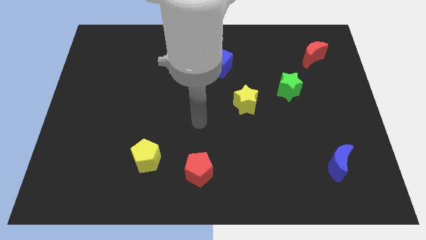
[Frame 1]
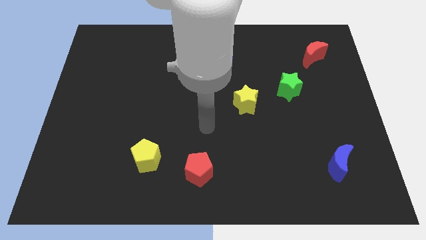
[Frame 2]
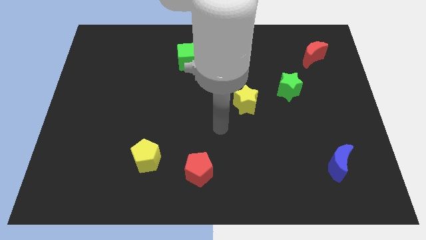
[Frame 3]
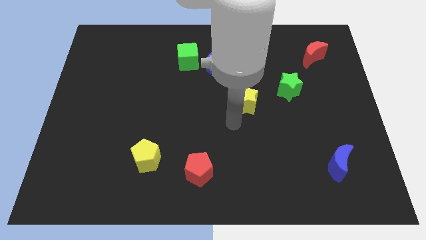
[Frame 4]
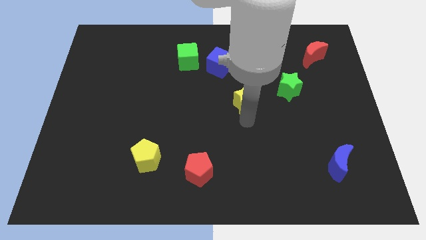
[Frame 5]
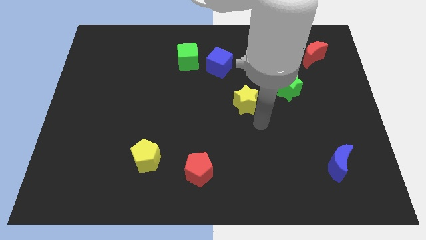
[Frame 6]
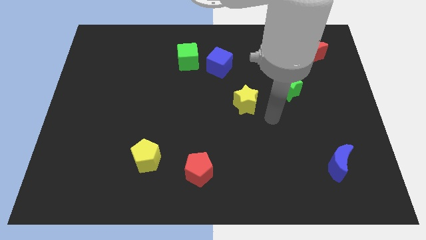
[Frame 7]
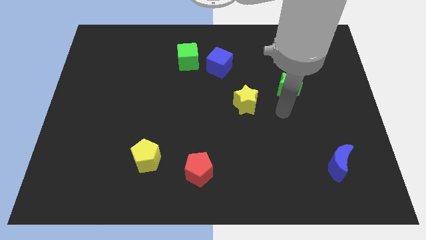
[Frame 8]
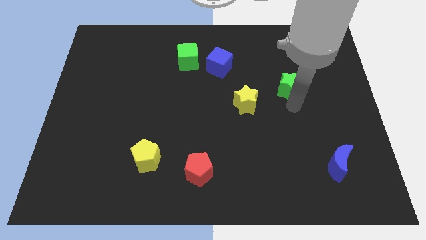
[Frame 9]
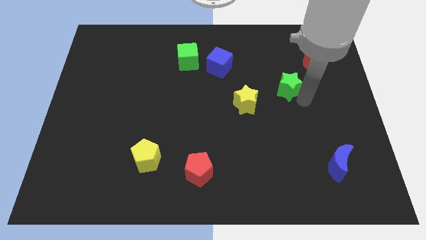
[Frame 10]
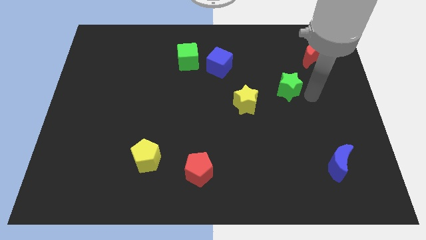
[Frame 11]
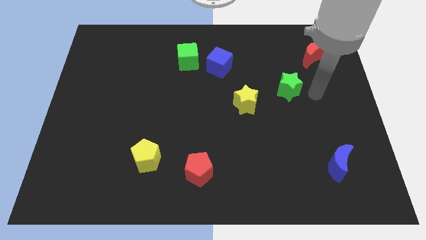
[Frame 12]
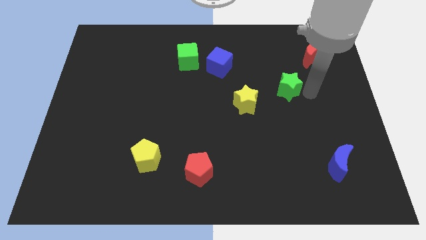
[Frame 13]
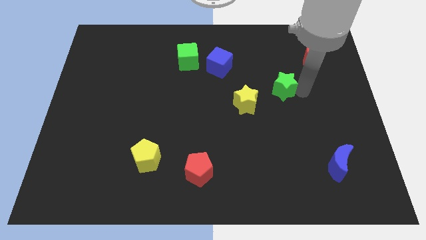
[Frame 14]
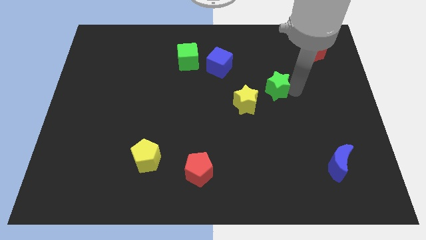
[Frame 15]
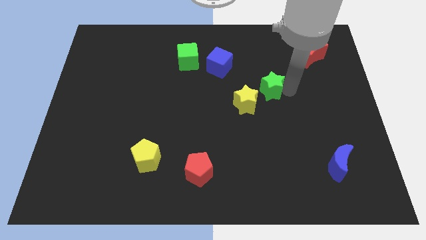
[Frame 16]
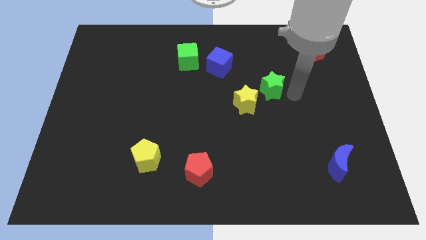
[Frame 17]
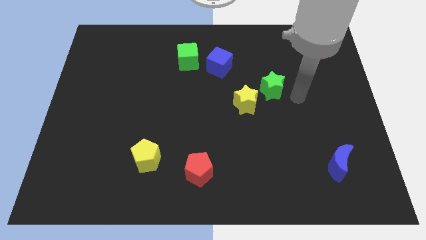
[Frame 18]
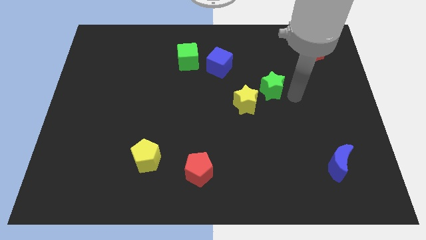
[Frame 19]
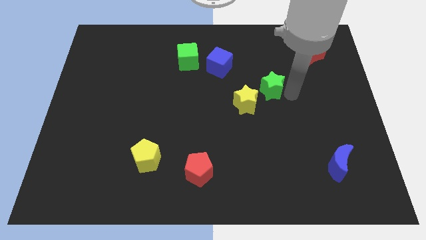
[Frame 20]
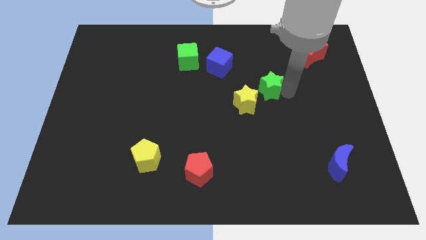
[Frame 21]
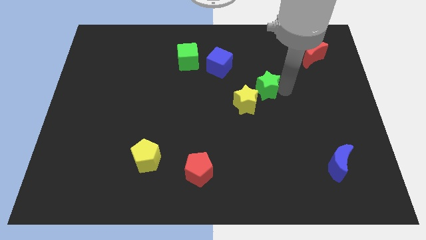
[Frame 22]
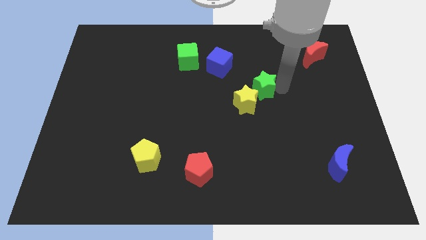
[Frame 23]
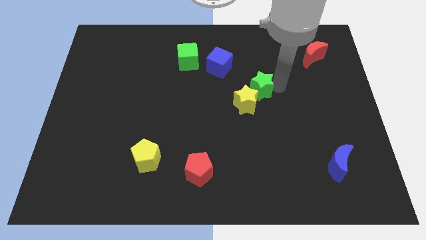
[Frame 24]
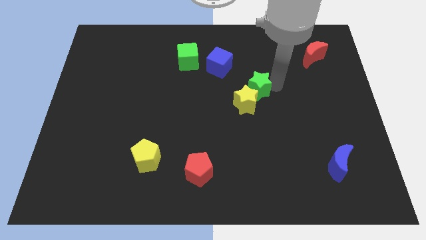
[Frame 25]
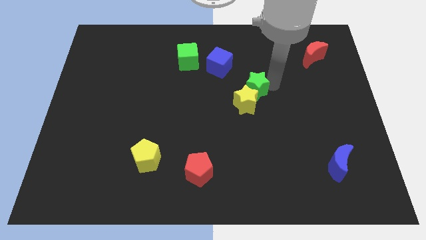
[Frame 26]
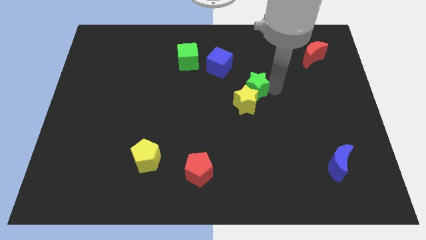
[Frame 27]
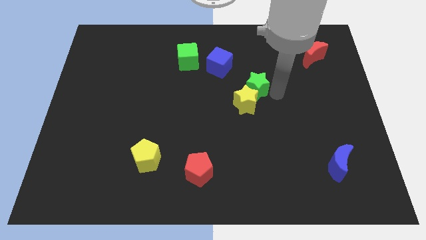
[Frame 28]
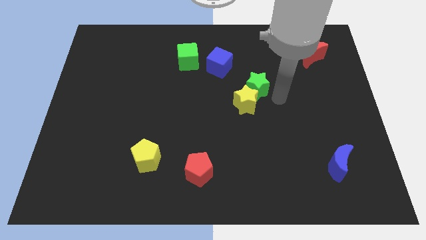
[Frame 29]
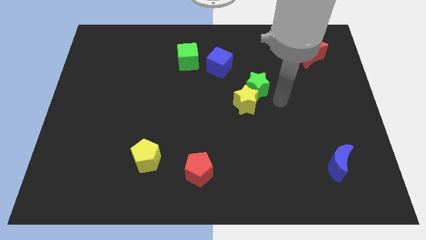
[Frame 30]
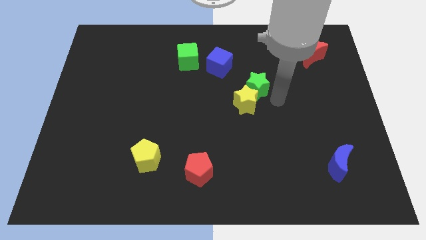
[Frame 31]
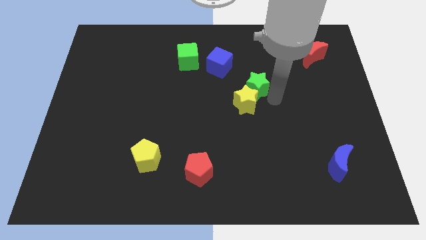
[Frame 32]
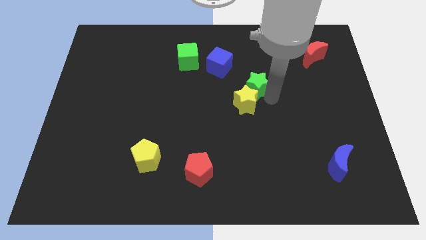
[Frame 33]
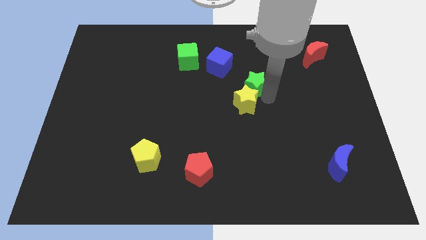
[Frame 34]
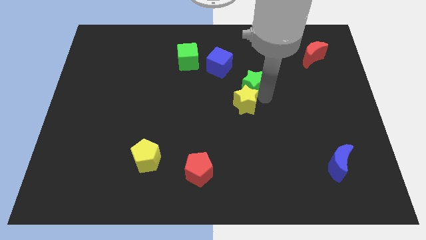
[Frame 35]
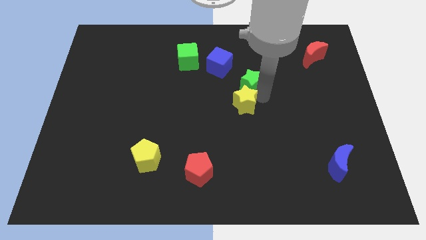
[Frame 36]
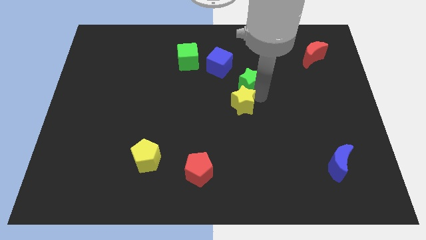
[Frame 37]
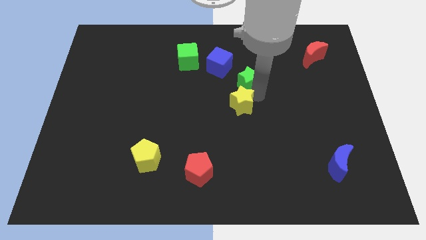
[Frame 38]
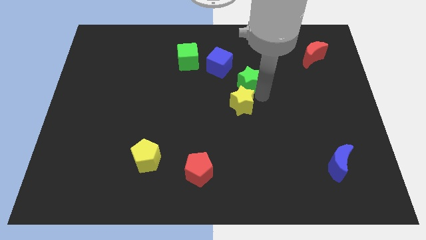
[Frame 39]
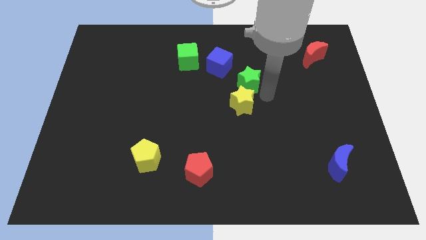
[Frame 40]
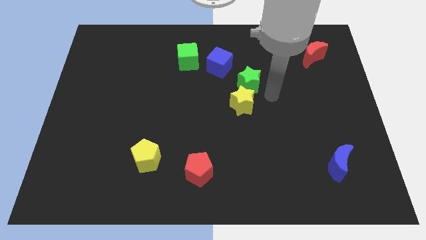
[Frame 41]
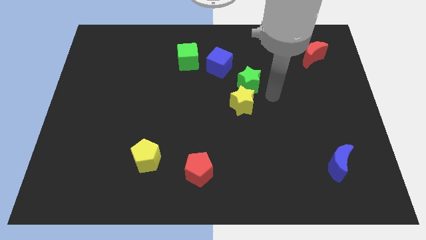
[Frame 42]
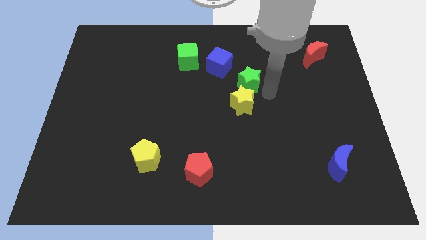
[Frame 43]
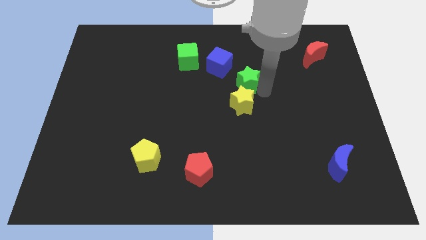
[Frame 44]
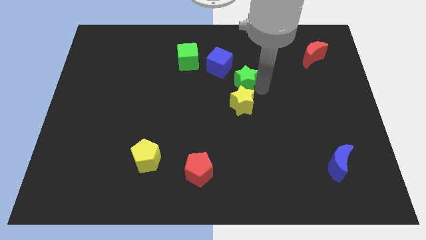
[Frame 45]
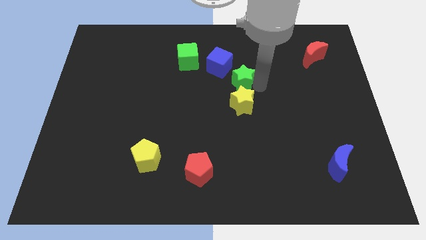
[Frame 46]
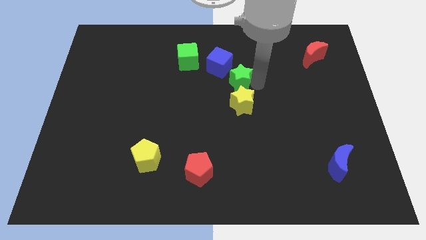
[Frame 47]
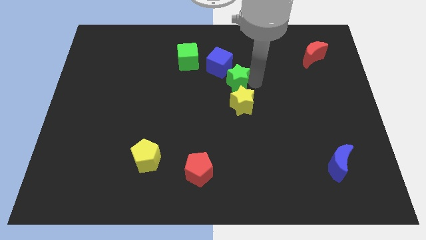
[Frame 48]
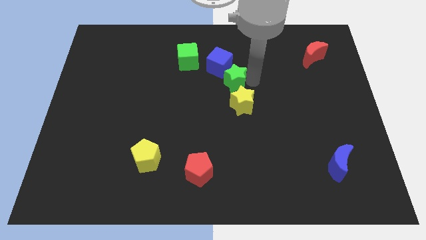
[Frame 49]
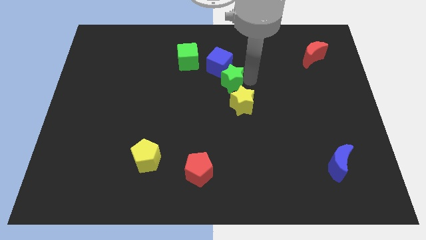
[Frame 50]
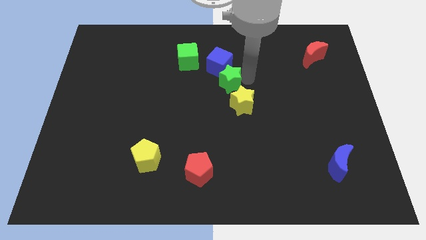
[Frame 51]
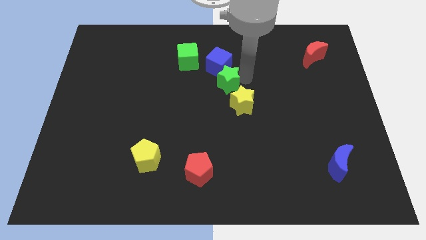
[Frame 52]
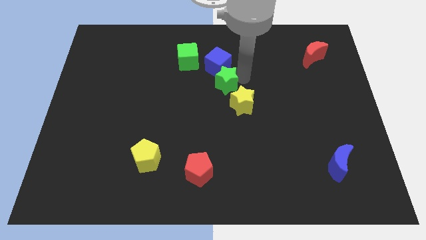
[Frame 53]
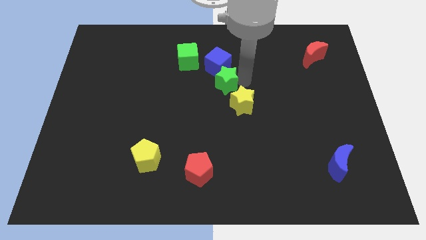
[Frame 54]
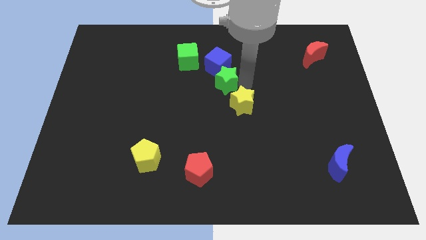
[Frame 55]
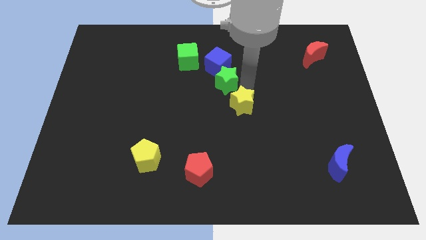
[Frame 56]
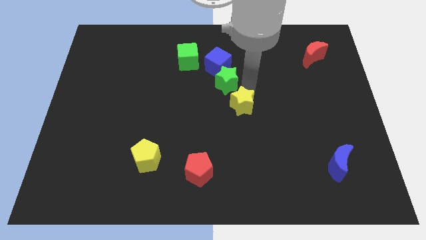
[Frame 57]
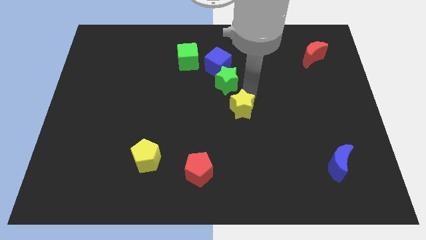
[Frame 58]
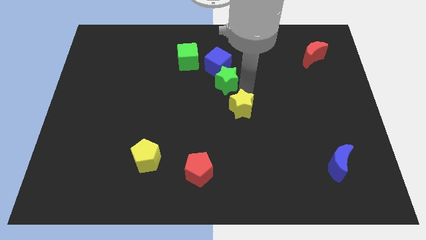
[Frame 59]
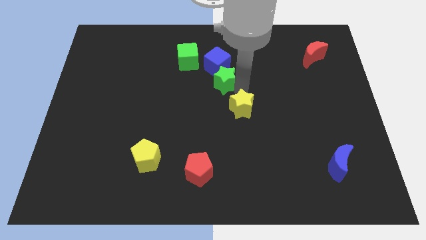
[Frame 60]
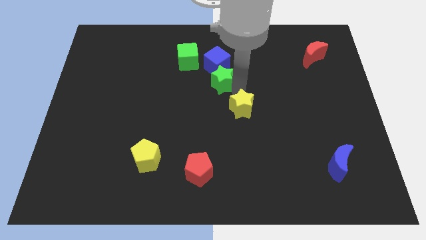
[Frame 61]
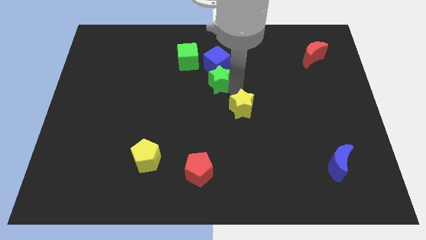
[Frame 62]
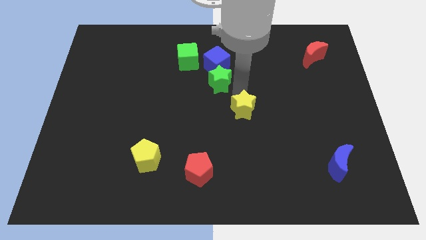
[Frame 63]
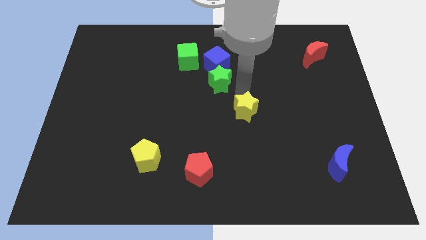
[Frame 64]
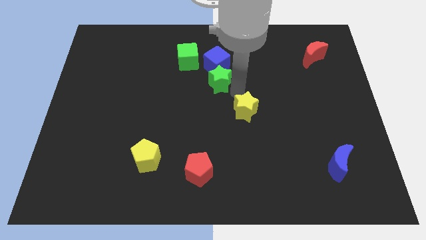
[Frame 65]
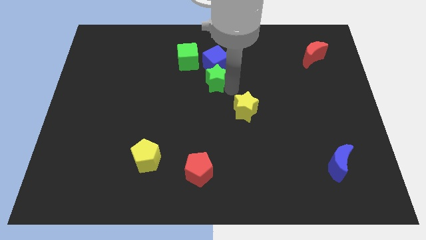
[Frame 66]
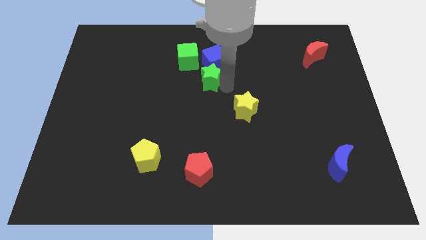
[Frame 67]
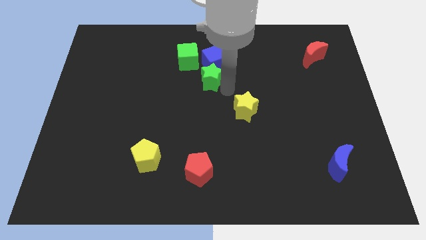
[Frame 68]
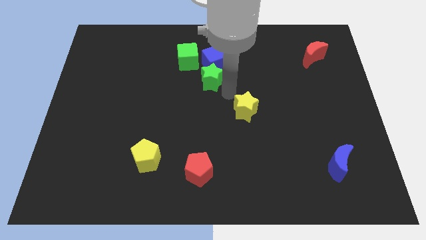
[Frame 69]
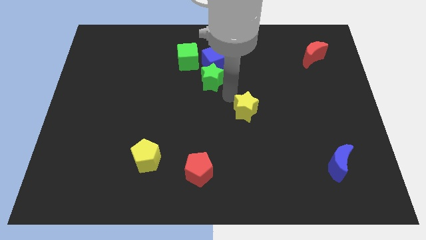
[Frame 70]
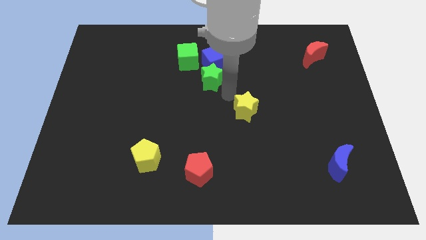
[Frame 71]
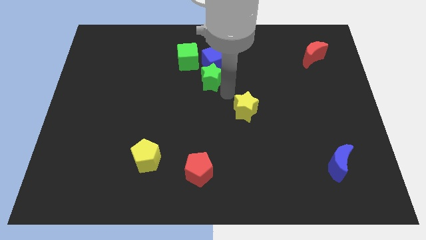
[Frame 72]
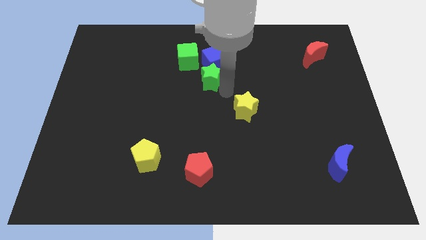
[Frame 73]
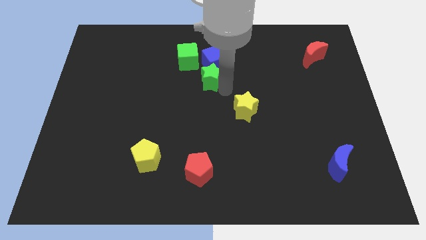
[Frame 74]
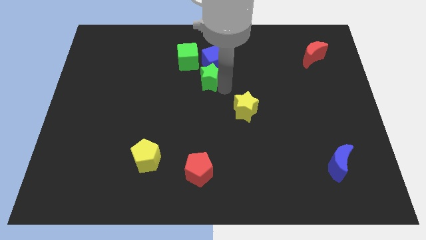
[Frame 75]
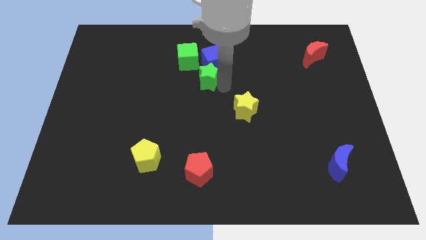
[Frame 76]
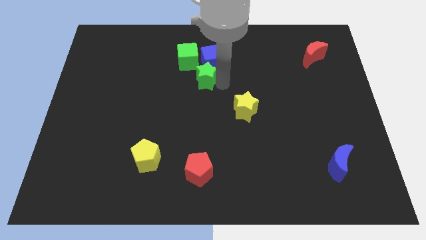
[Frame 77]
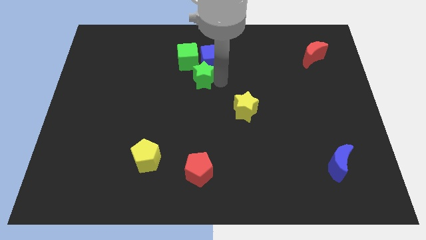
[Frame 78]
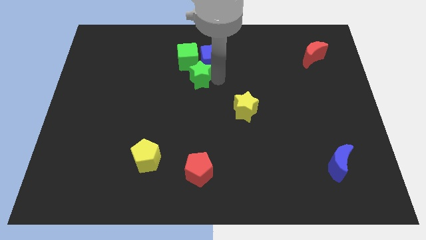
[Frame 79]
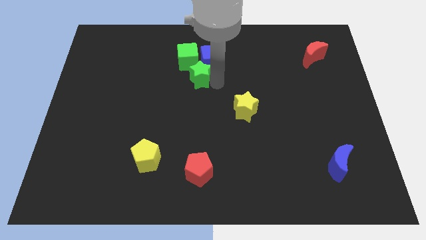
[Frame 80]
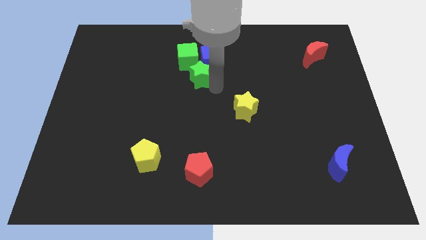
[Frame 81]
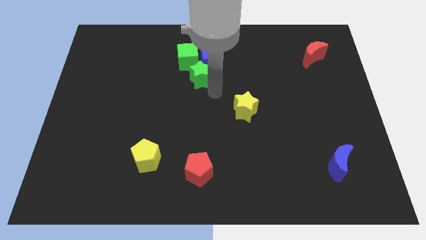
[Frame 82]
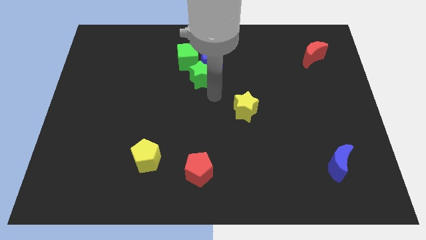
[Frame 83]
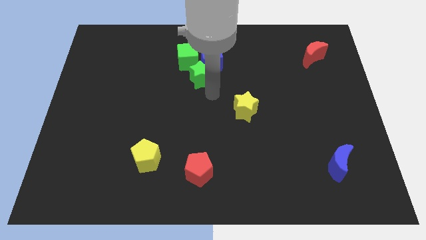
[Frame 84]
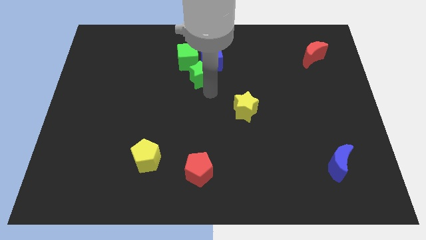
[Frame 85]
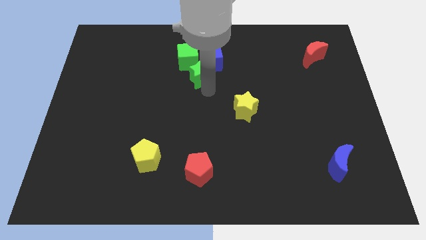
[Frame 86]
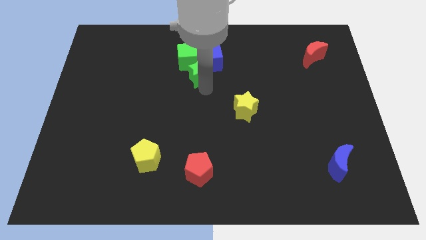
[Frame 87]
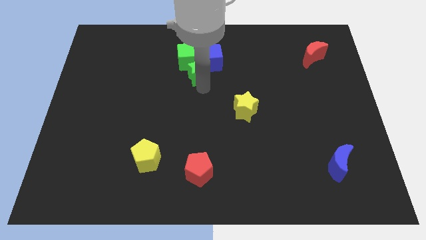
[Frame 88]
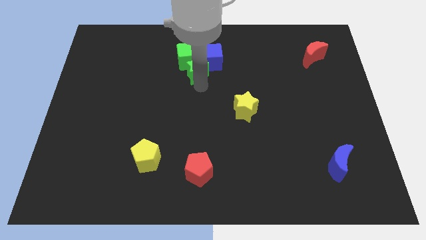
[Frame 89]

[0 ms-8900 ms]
push the green star to the green cube
